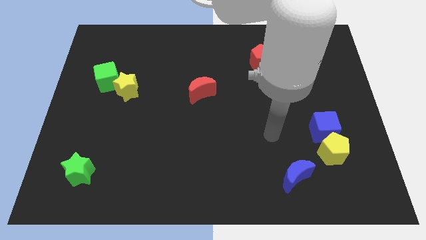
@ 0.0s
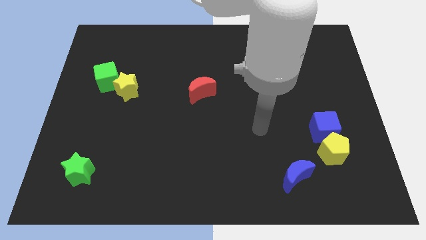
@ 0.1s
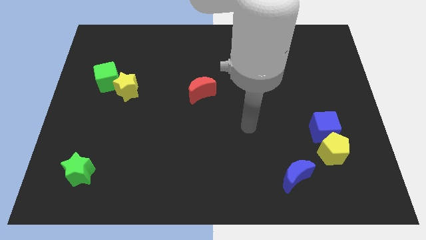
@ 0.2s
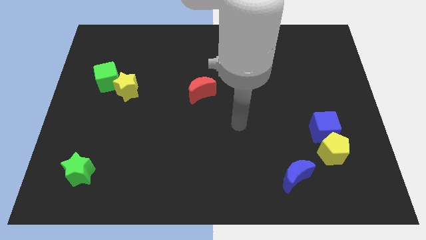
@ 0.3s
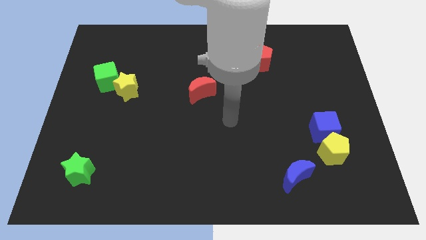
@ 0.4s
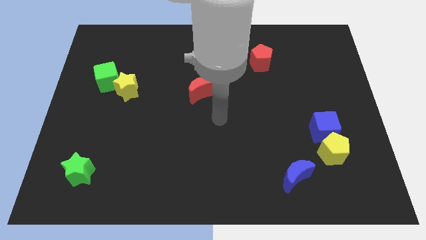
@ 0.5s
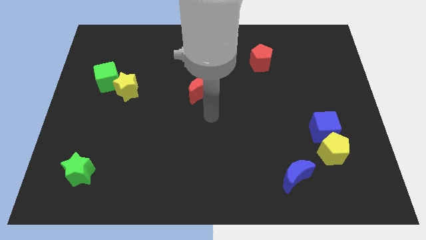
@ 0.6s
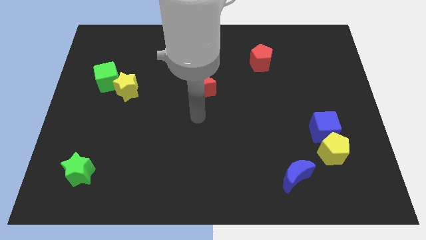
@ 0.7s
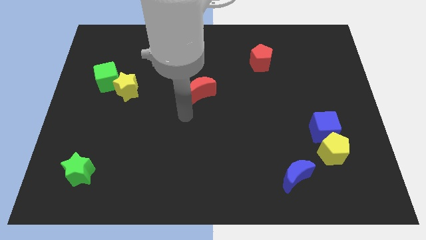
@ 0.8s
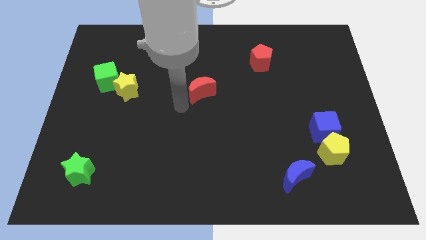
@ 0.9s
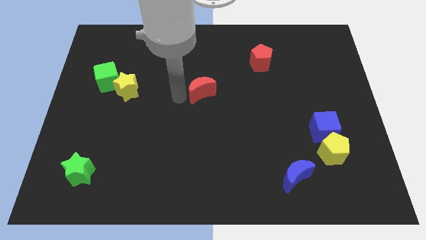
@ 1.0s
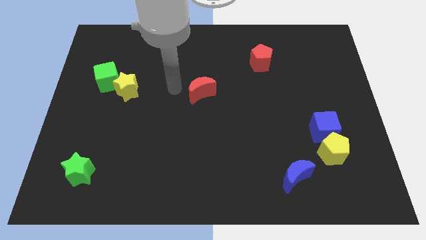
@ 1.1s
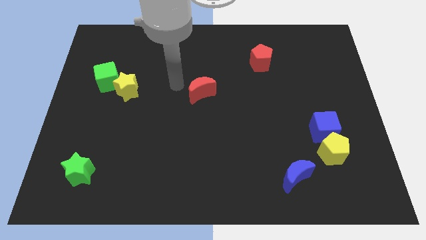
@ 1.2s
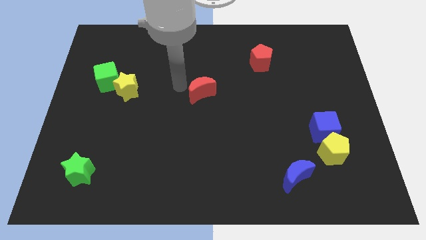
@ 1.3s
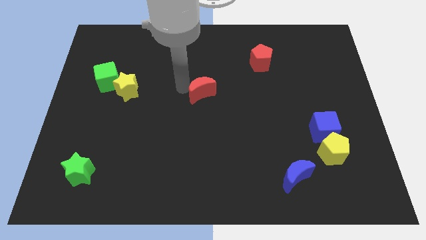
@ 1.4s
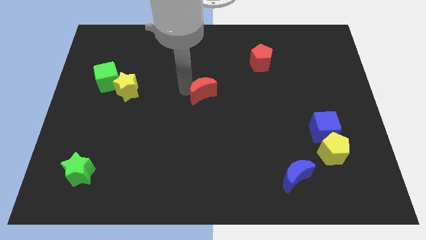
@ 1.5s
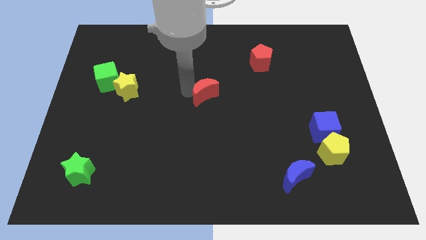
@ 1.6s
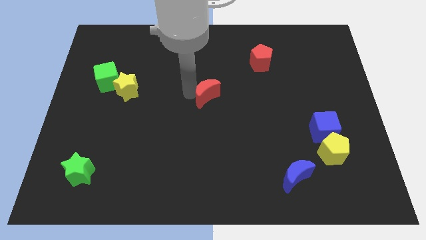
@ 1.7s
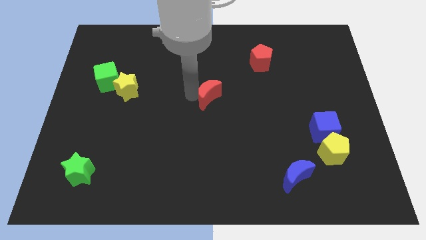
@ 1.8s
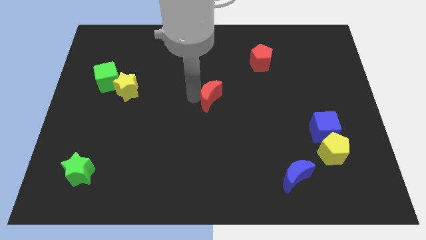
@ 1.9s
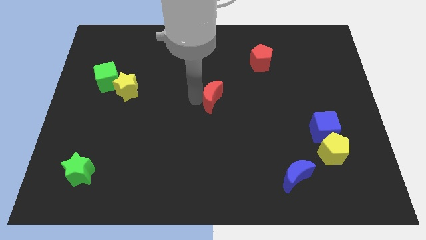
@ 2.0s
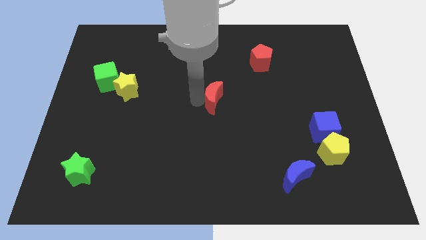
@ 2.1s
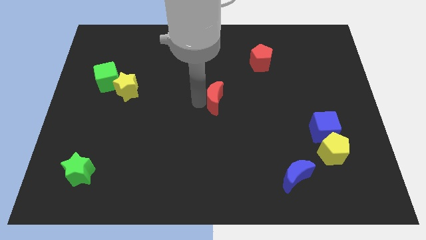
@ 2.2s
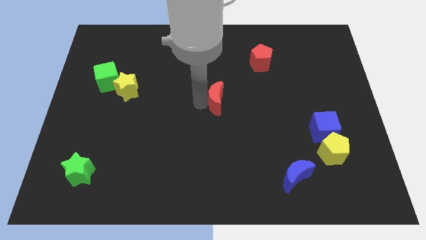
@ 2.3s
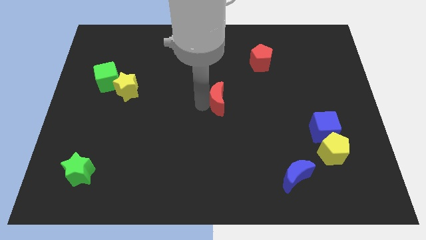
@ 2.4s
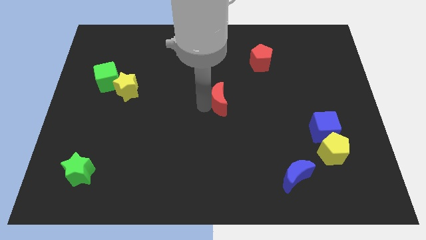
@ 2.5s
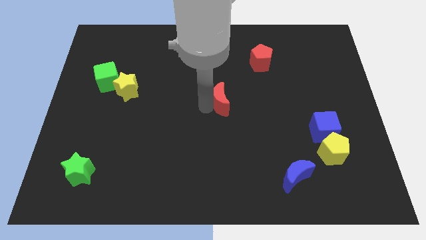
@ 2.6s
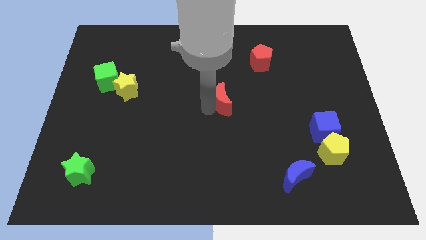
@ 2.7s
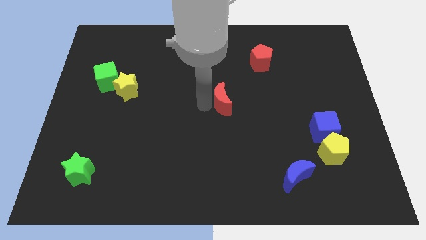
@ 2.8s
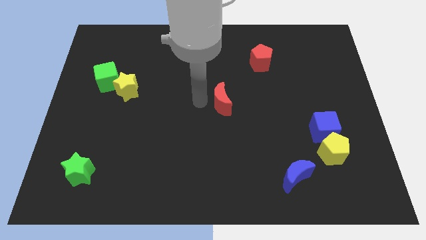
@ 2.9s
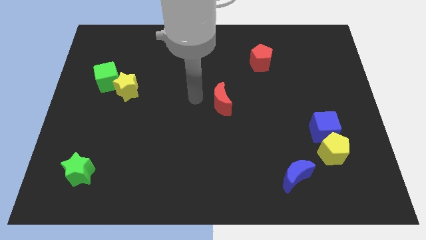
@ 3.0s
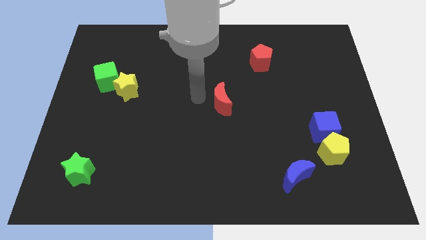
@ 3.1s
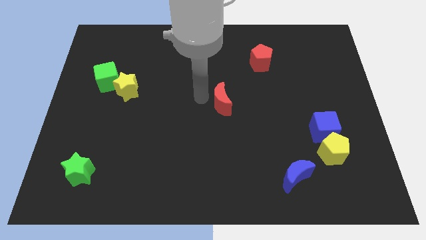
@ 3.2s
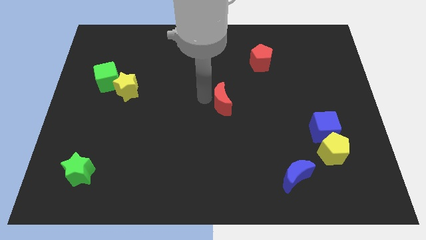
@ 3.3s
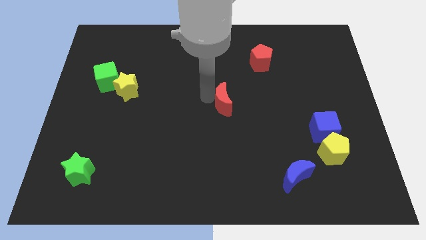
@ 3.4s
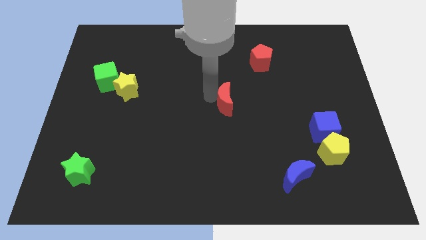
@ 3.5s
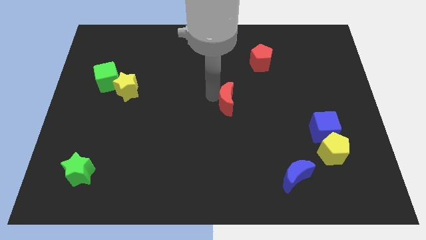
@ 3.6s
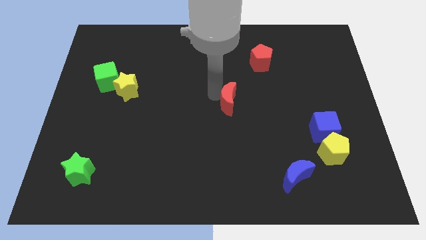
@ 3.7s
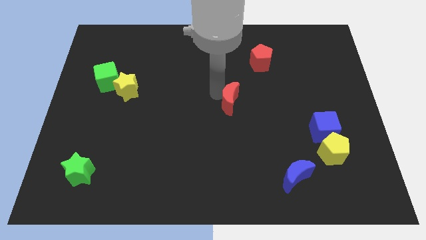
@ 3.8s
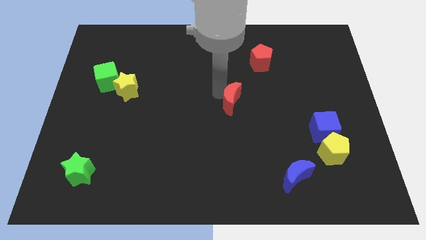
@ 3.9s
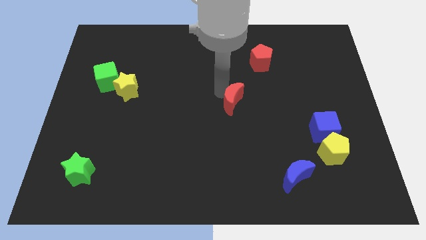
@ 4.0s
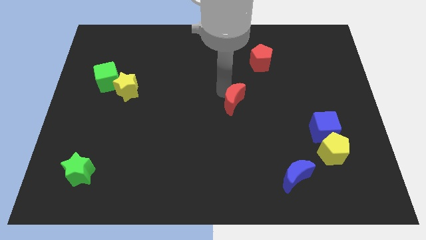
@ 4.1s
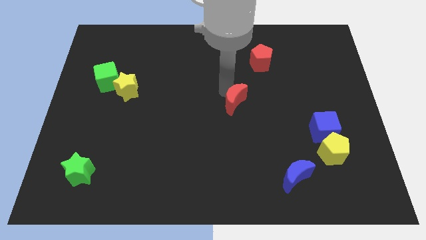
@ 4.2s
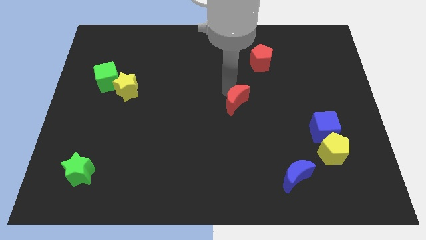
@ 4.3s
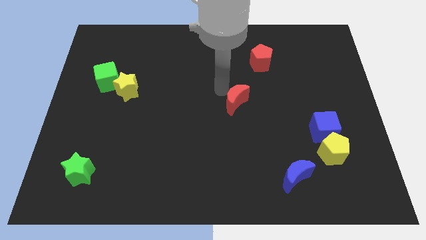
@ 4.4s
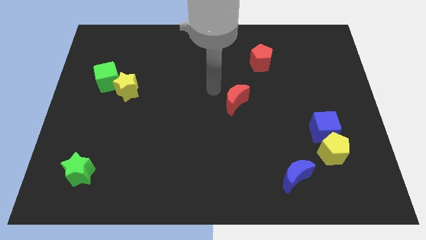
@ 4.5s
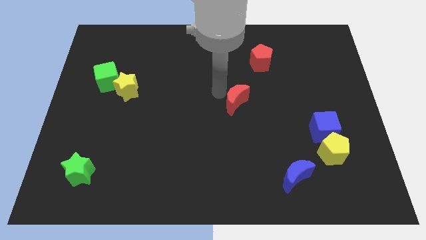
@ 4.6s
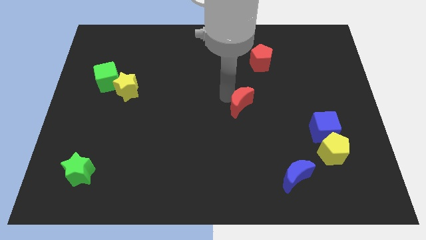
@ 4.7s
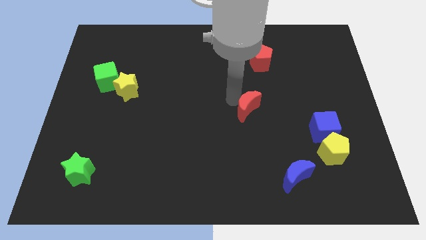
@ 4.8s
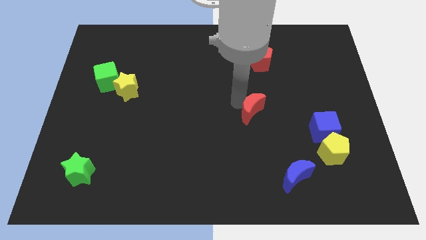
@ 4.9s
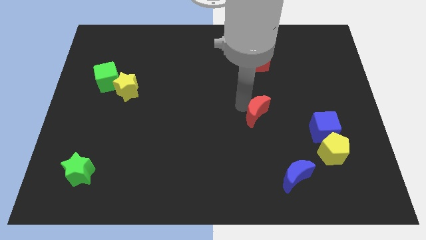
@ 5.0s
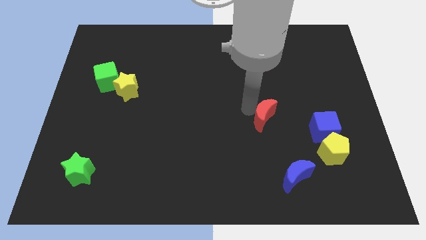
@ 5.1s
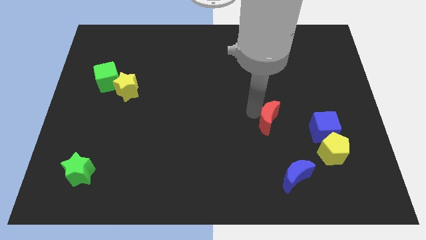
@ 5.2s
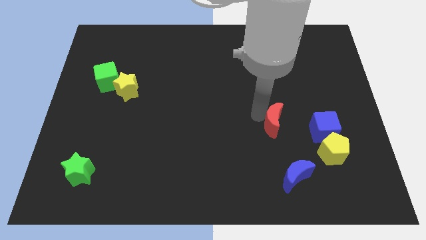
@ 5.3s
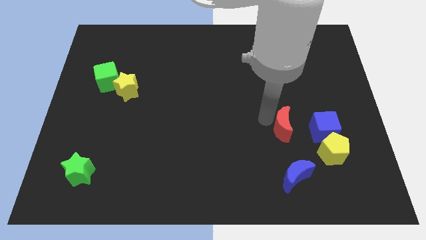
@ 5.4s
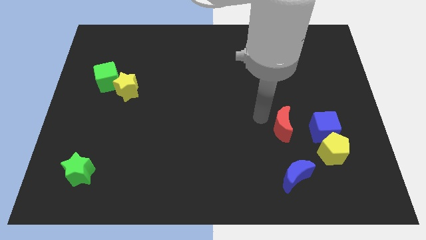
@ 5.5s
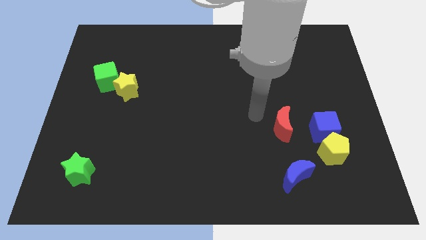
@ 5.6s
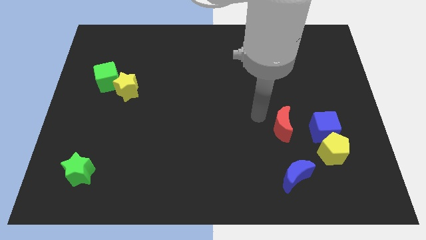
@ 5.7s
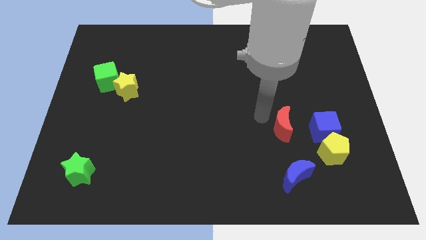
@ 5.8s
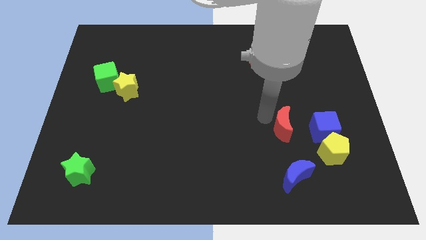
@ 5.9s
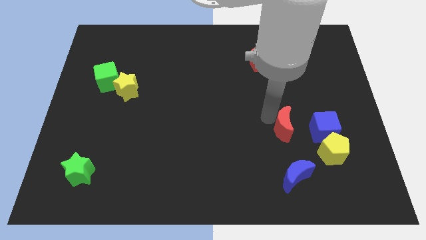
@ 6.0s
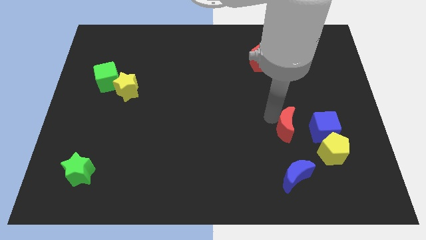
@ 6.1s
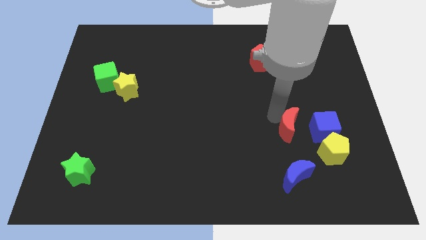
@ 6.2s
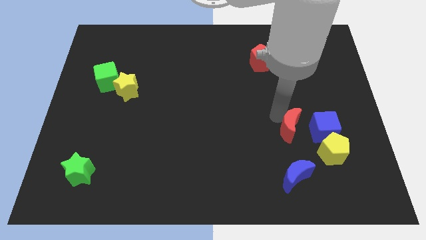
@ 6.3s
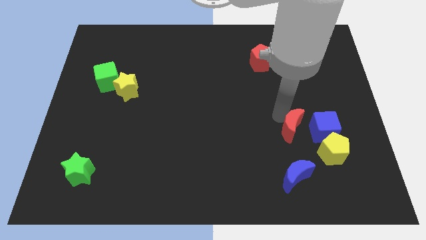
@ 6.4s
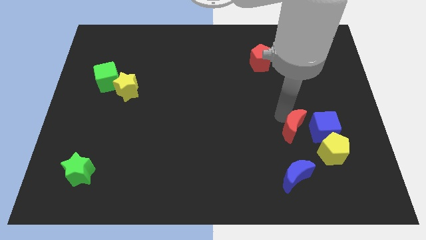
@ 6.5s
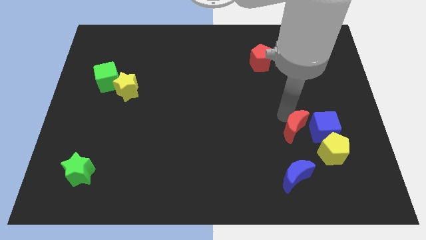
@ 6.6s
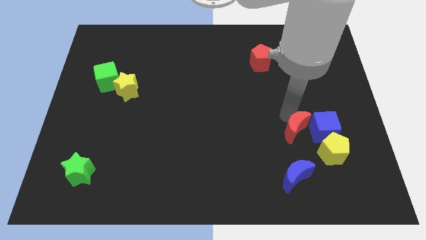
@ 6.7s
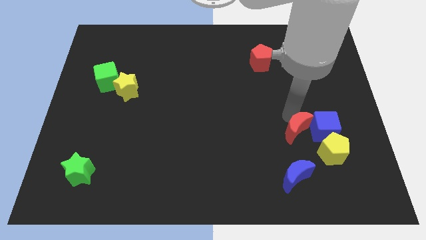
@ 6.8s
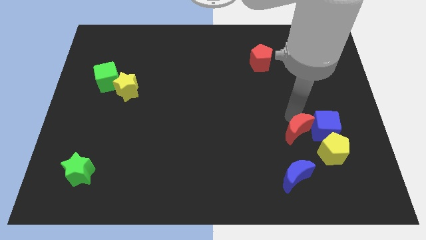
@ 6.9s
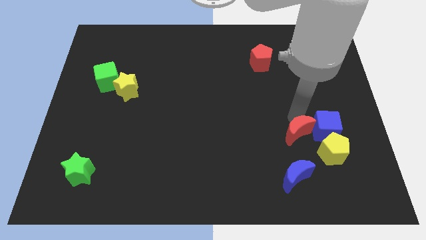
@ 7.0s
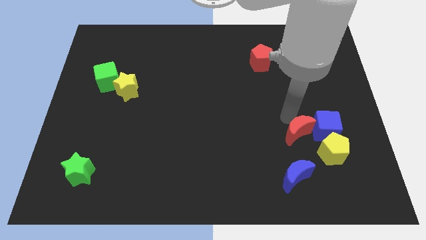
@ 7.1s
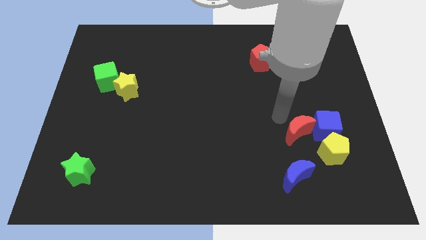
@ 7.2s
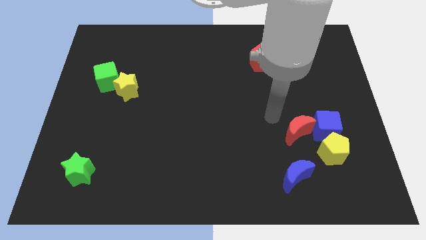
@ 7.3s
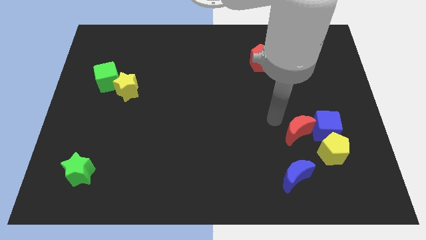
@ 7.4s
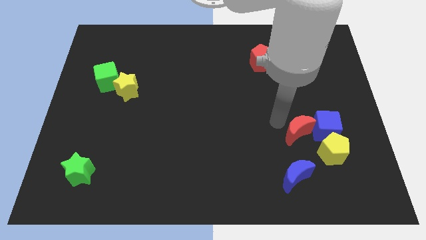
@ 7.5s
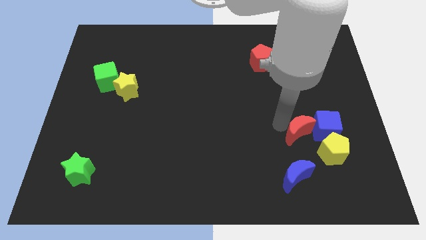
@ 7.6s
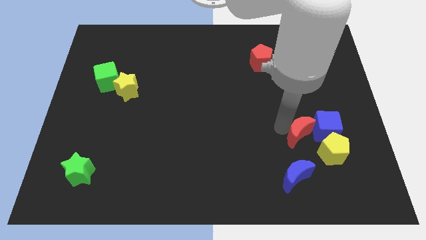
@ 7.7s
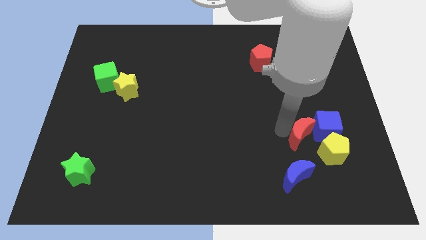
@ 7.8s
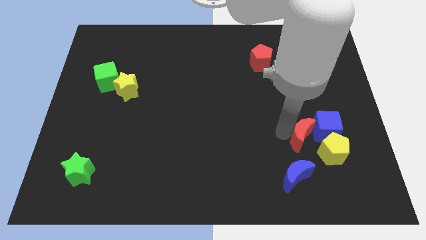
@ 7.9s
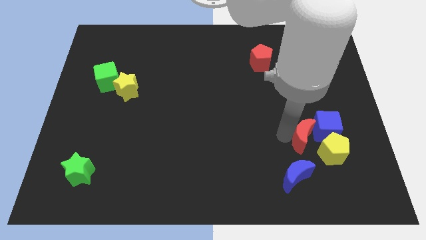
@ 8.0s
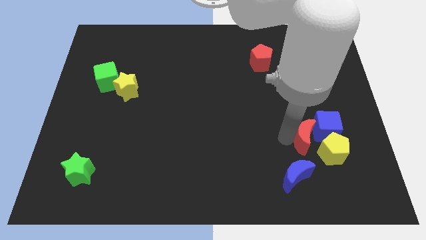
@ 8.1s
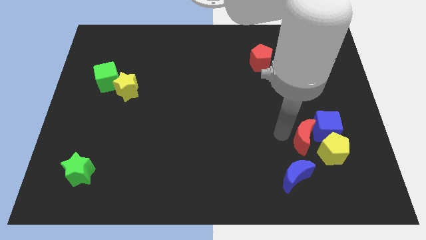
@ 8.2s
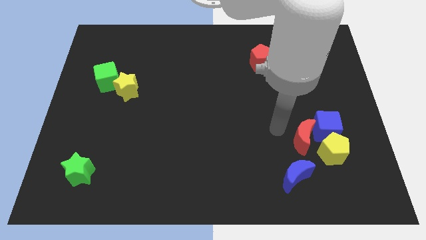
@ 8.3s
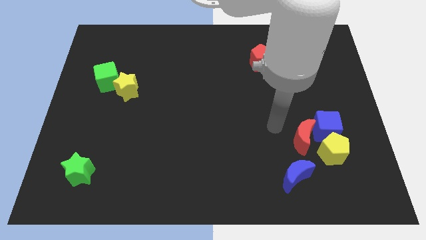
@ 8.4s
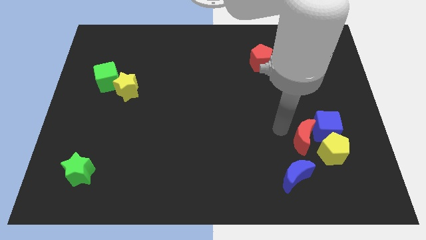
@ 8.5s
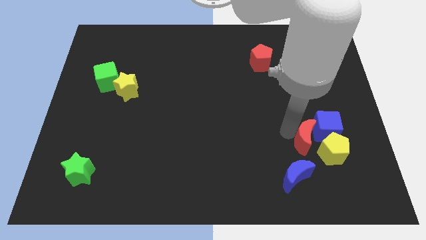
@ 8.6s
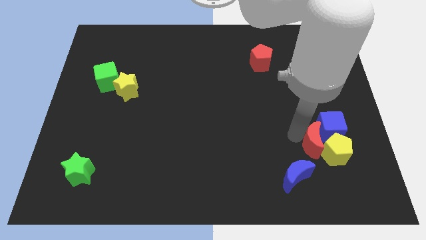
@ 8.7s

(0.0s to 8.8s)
slide the red moon next to the yellow pentagon
